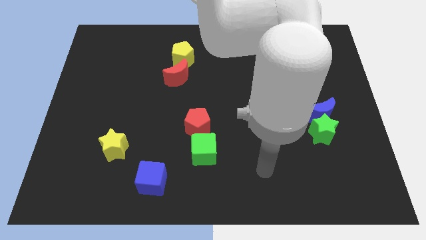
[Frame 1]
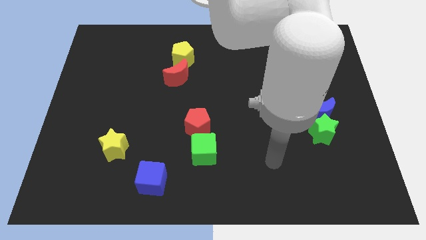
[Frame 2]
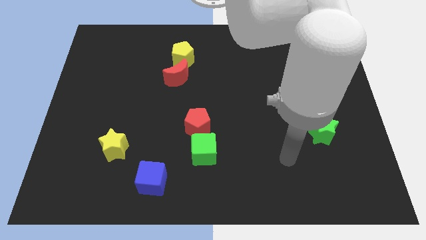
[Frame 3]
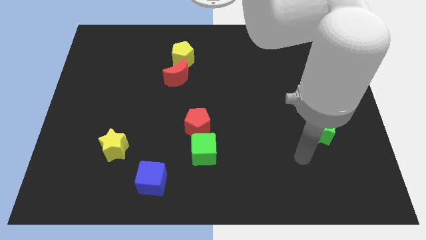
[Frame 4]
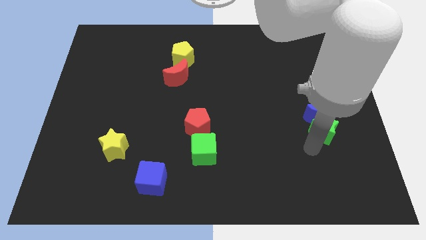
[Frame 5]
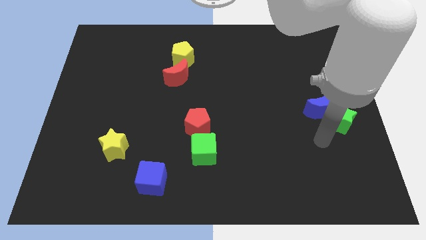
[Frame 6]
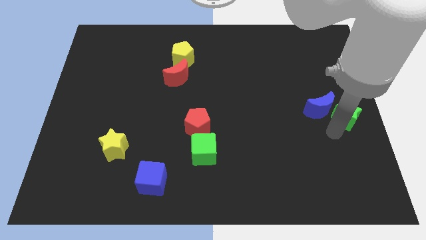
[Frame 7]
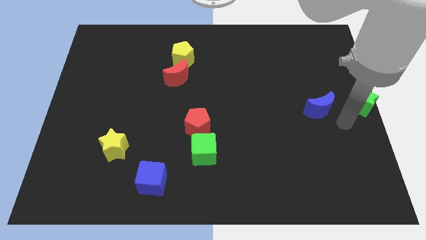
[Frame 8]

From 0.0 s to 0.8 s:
pull the blue moon apart from the green star

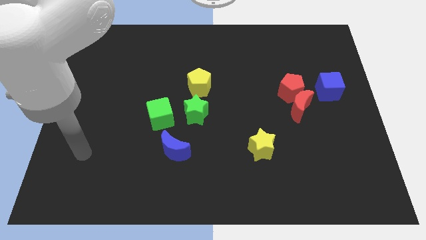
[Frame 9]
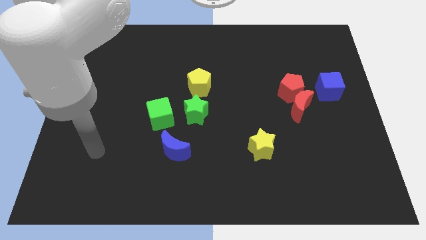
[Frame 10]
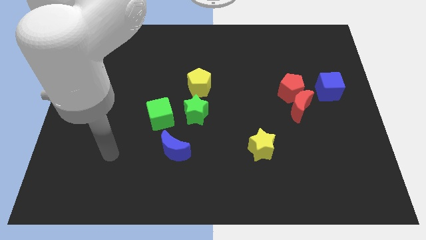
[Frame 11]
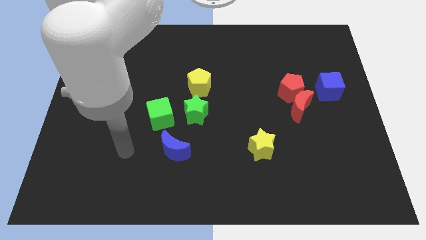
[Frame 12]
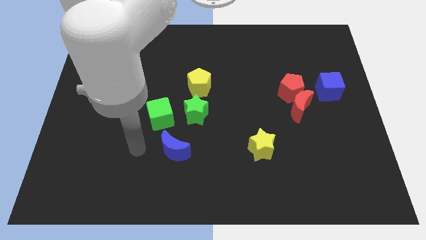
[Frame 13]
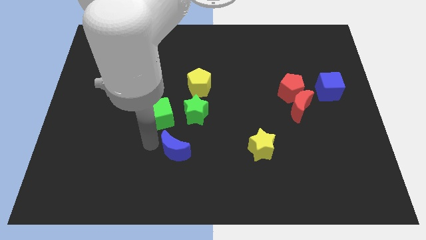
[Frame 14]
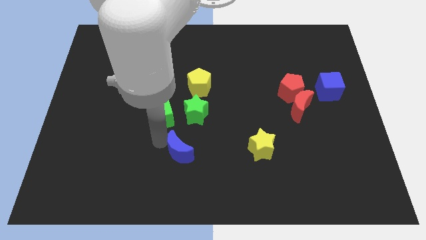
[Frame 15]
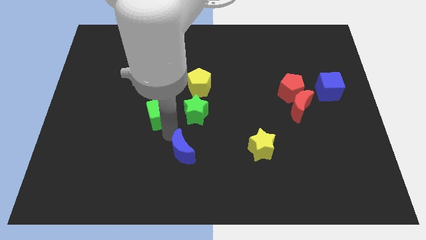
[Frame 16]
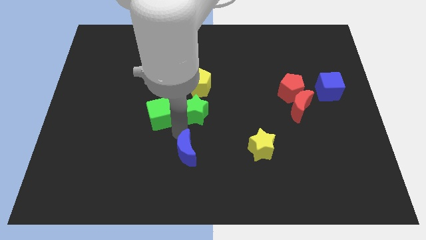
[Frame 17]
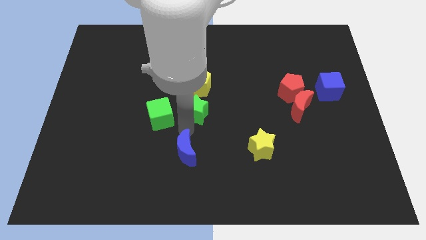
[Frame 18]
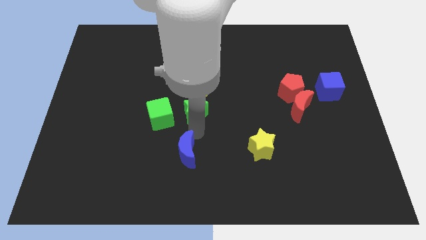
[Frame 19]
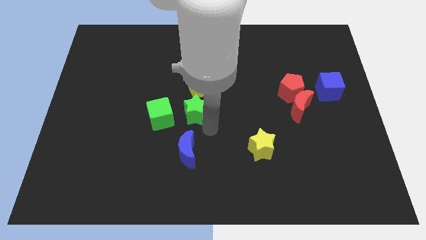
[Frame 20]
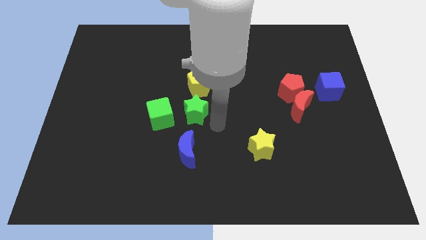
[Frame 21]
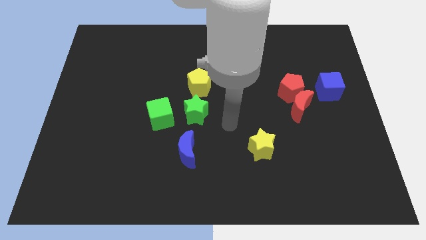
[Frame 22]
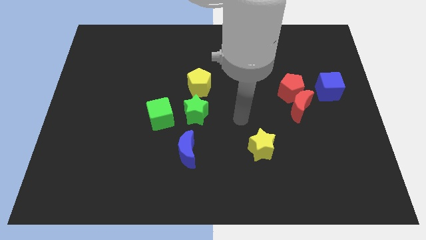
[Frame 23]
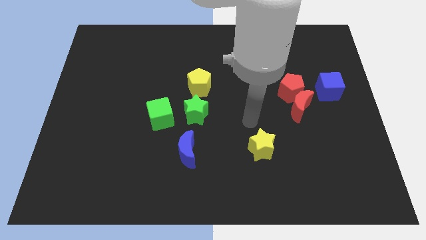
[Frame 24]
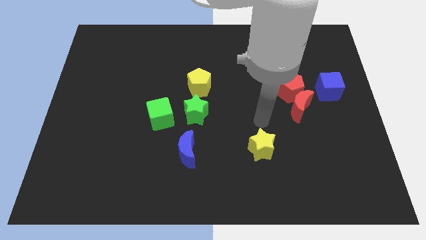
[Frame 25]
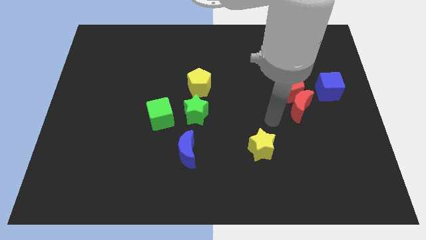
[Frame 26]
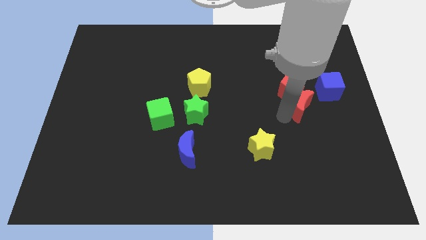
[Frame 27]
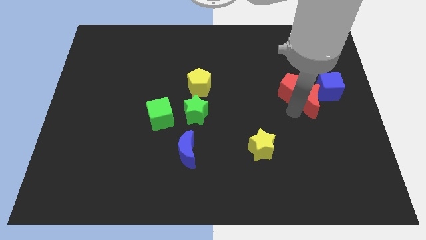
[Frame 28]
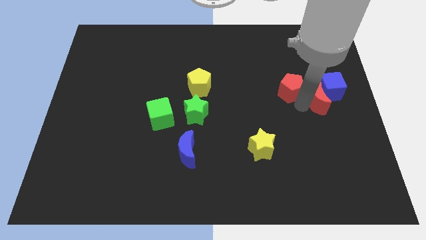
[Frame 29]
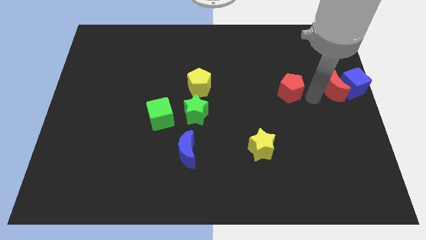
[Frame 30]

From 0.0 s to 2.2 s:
separate the red pentagon from the red moon and blue cube

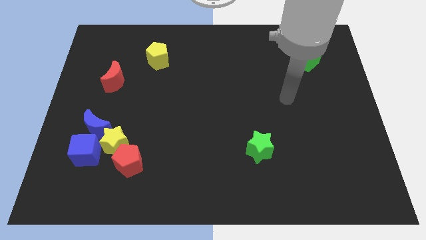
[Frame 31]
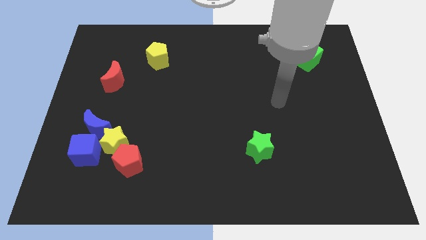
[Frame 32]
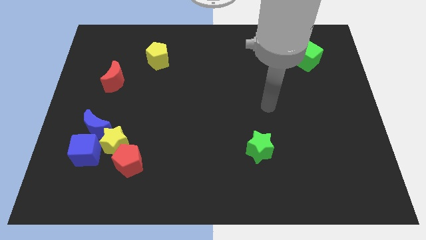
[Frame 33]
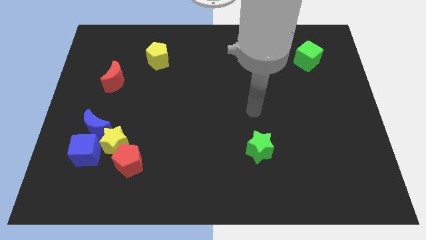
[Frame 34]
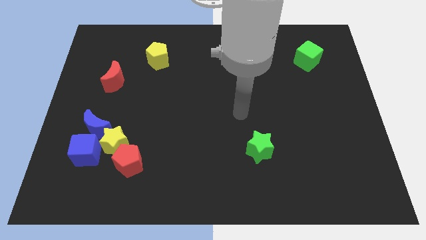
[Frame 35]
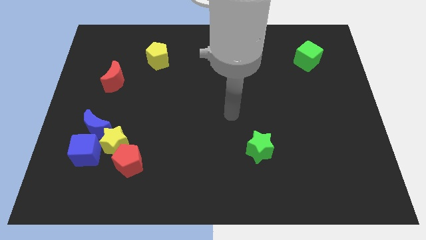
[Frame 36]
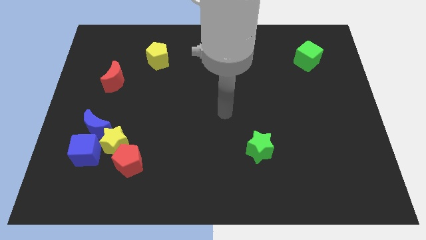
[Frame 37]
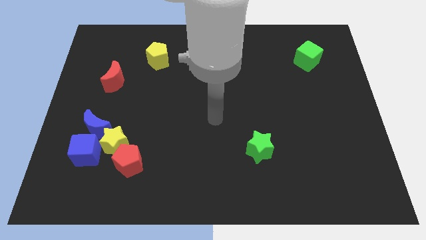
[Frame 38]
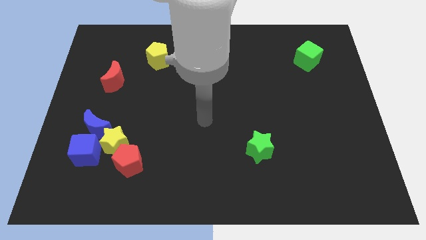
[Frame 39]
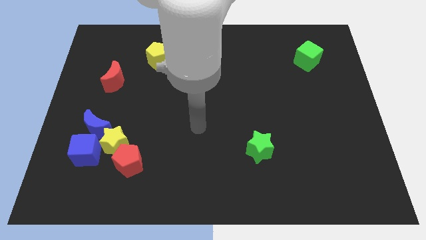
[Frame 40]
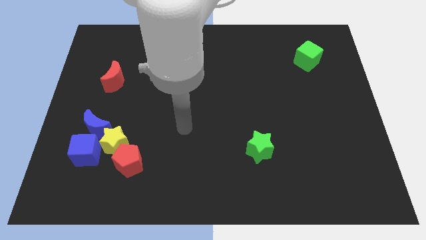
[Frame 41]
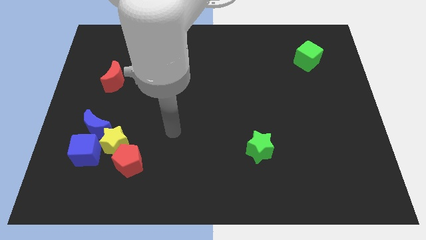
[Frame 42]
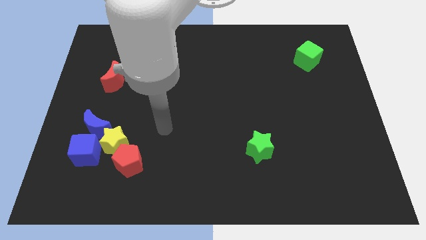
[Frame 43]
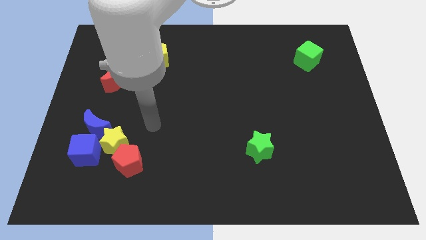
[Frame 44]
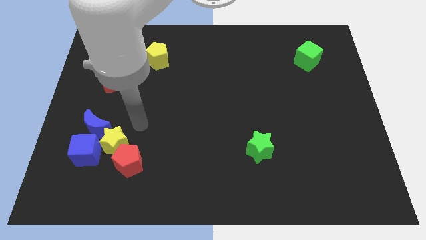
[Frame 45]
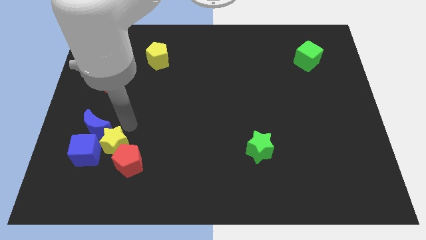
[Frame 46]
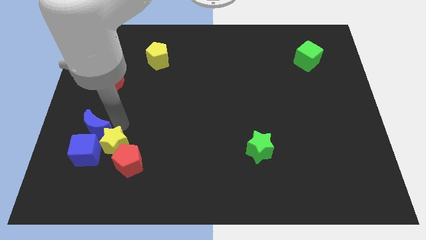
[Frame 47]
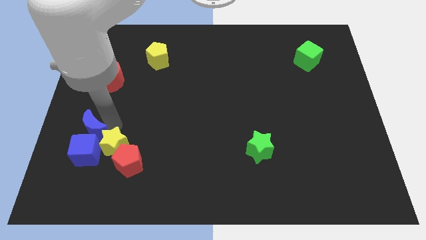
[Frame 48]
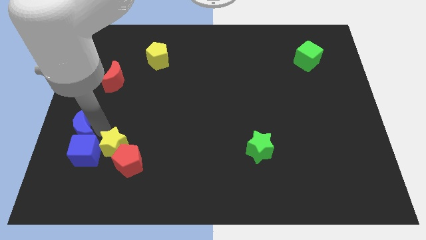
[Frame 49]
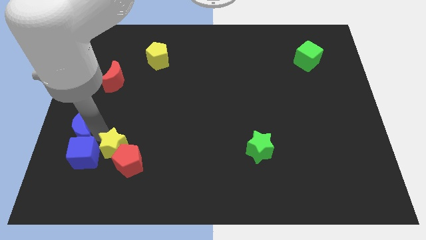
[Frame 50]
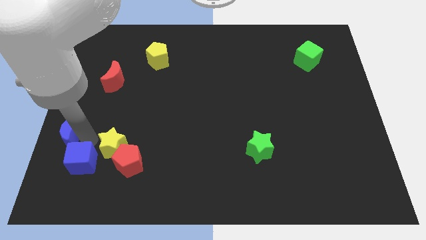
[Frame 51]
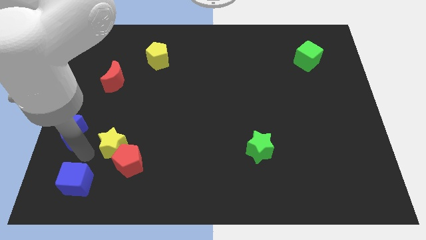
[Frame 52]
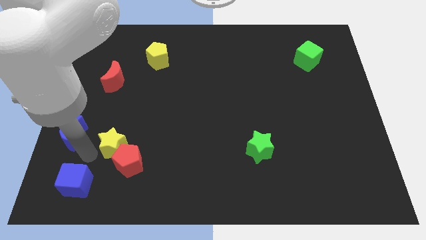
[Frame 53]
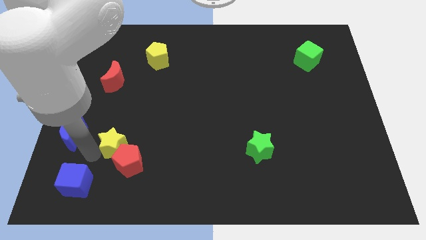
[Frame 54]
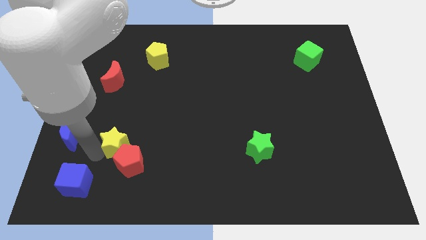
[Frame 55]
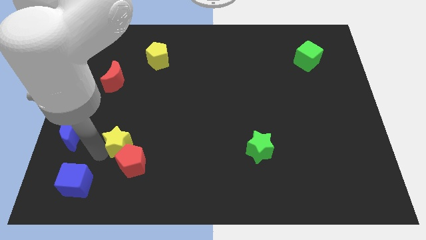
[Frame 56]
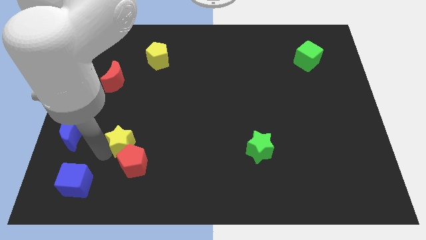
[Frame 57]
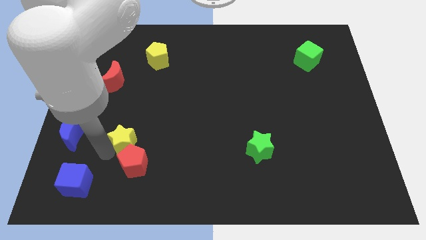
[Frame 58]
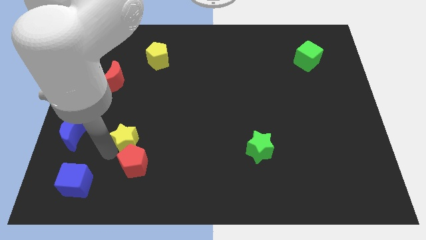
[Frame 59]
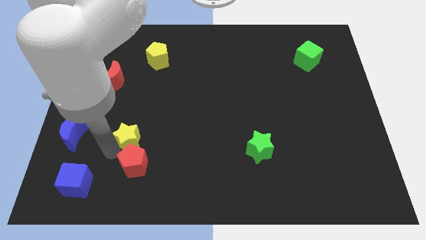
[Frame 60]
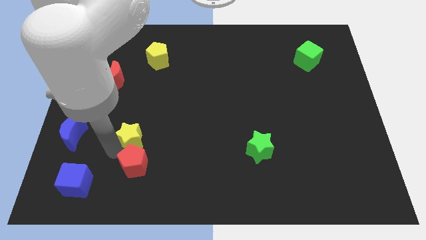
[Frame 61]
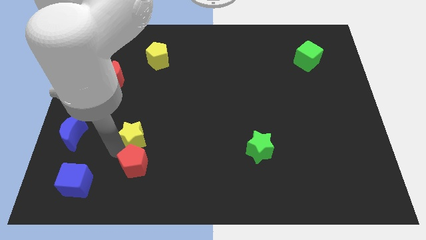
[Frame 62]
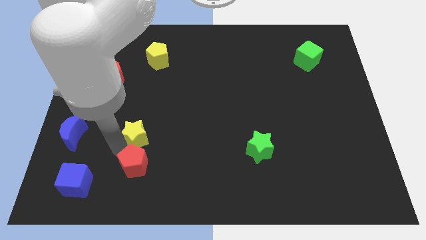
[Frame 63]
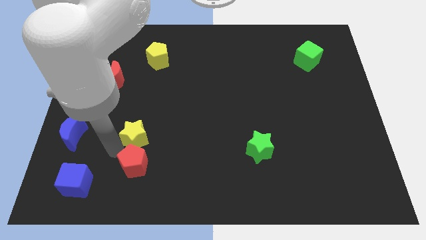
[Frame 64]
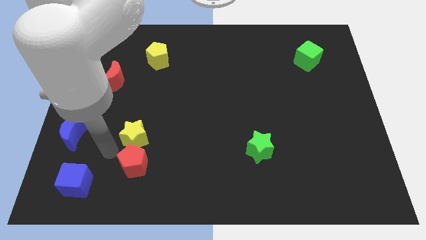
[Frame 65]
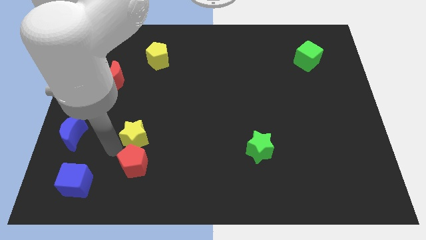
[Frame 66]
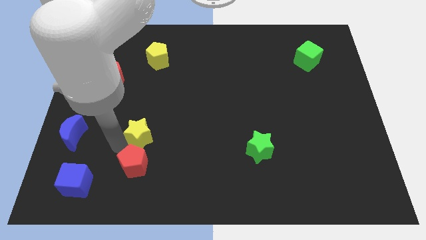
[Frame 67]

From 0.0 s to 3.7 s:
move the yellow star away from the group of blocks

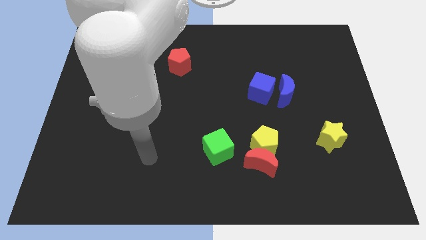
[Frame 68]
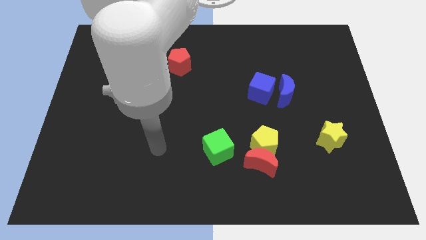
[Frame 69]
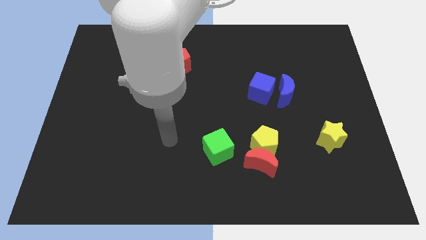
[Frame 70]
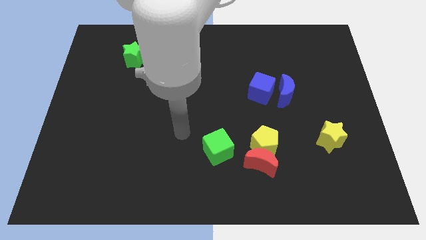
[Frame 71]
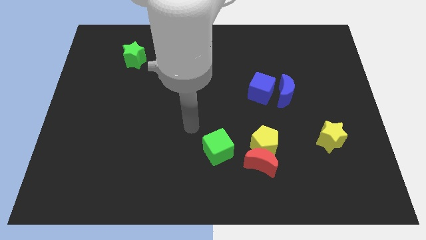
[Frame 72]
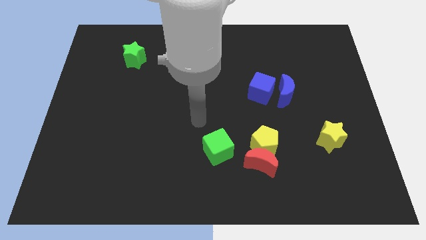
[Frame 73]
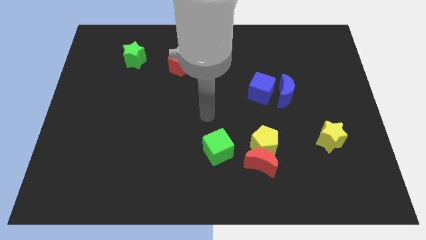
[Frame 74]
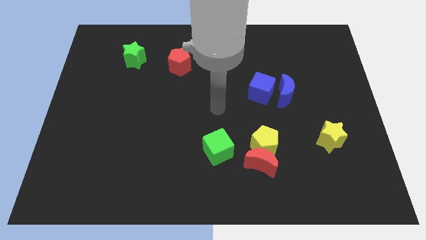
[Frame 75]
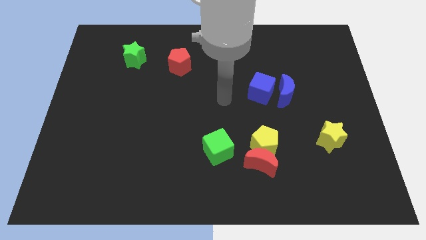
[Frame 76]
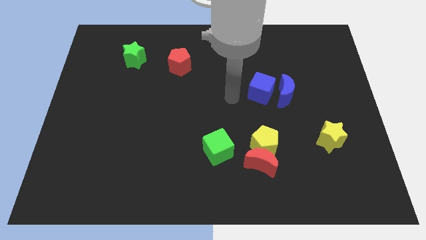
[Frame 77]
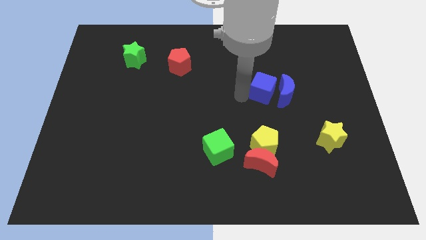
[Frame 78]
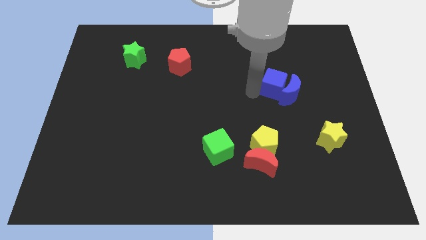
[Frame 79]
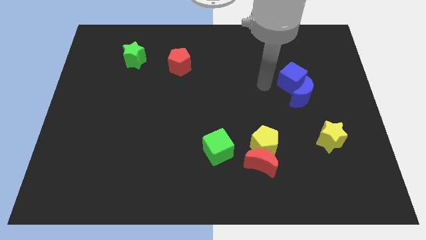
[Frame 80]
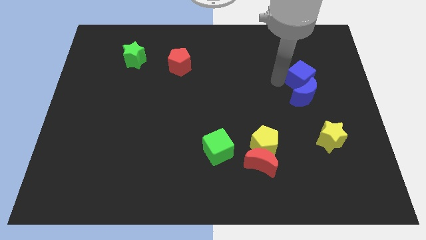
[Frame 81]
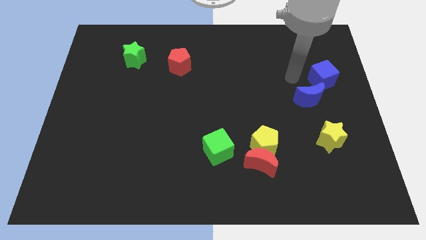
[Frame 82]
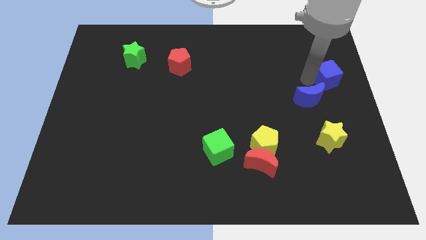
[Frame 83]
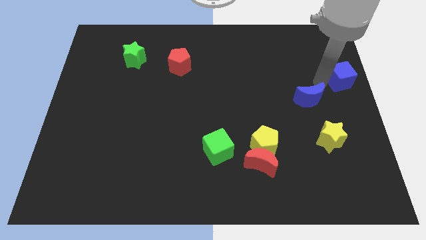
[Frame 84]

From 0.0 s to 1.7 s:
move the blue moon away from the blue cube

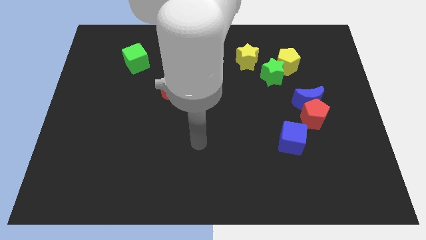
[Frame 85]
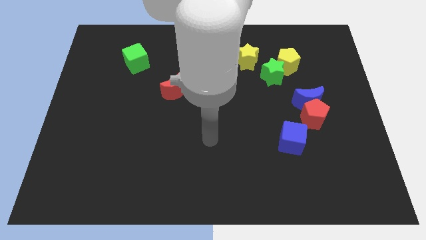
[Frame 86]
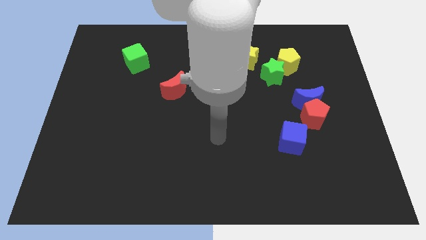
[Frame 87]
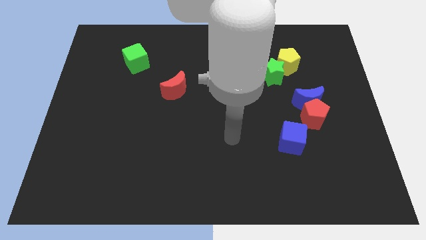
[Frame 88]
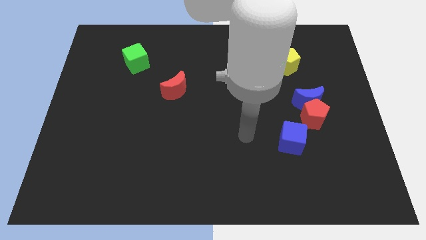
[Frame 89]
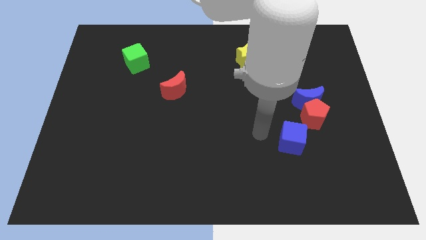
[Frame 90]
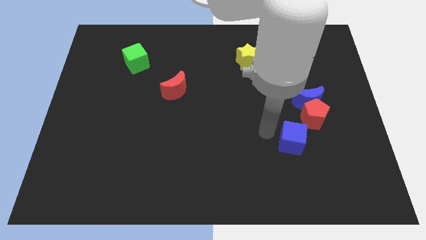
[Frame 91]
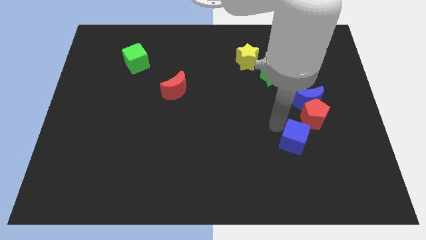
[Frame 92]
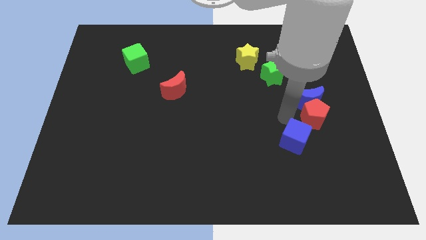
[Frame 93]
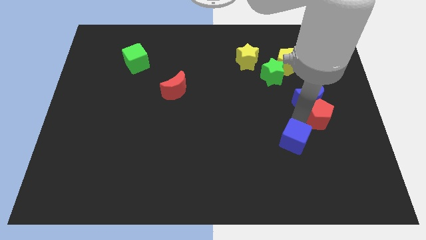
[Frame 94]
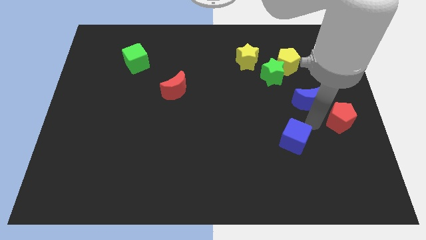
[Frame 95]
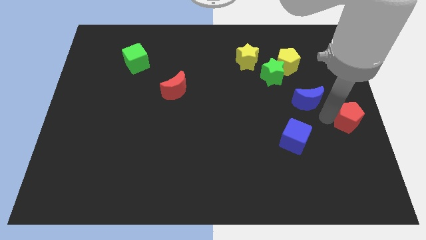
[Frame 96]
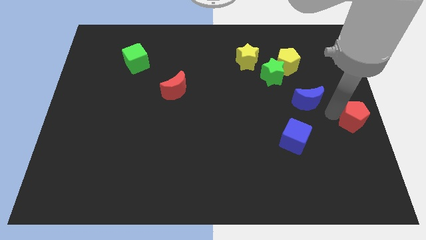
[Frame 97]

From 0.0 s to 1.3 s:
separate the blue moon from the red pentagon
